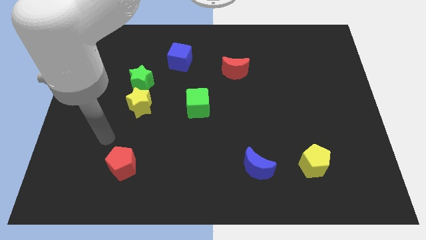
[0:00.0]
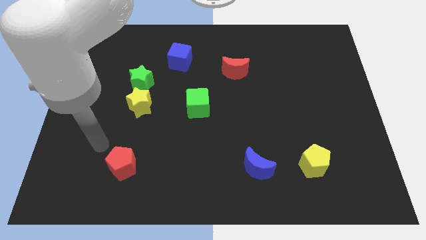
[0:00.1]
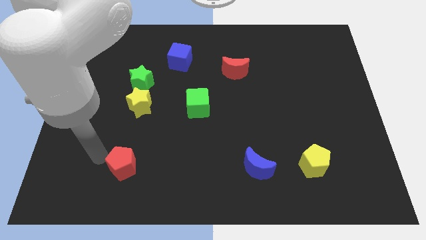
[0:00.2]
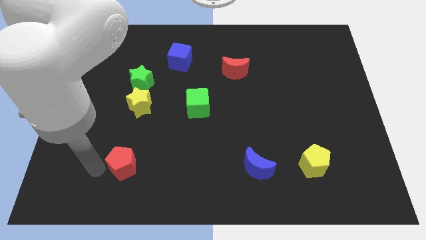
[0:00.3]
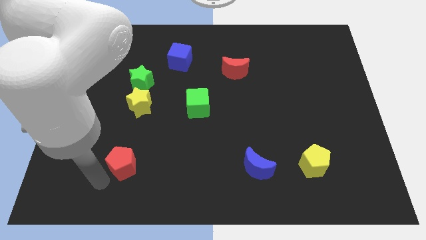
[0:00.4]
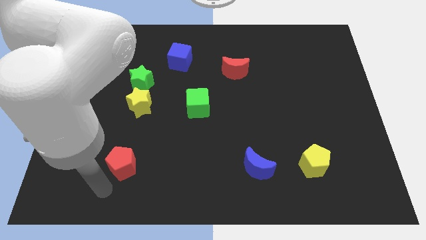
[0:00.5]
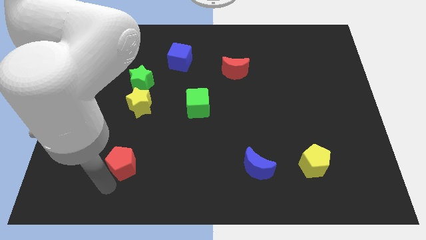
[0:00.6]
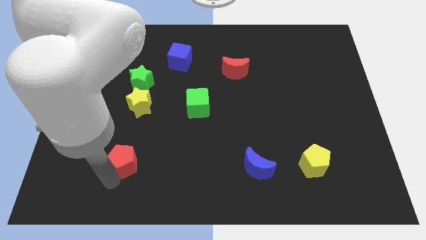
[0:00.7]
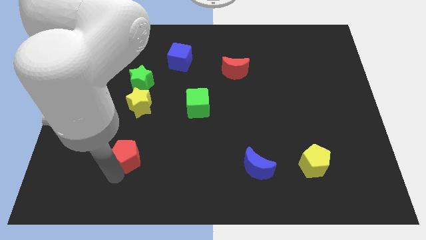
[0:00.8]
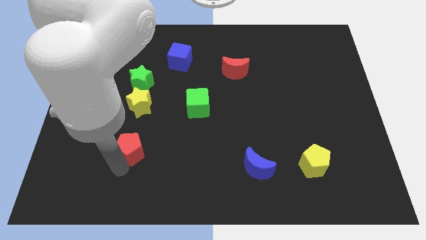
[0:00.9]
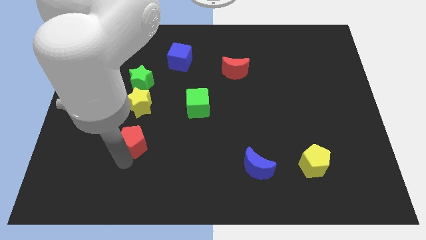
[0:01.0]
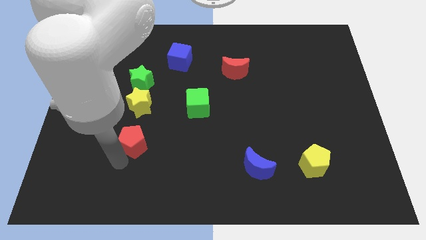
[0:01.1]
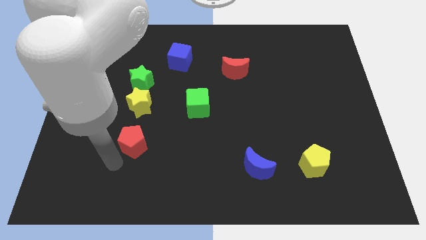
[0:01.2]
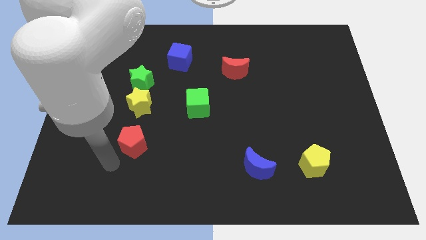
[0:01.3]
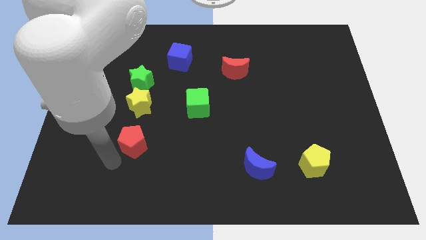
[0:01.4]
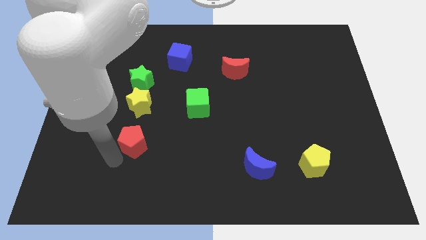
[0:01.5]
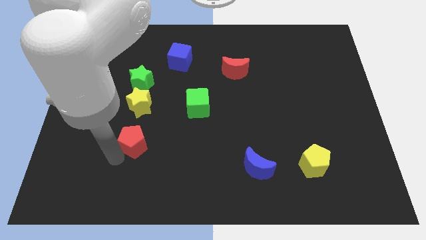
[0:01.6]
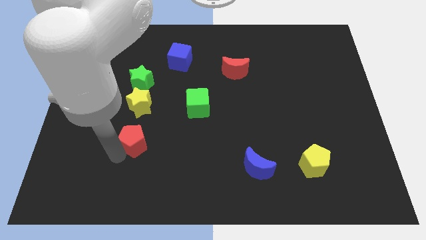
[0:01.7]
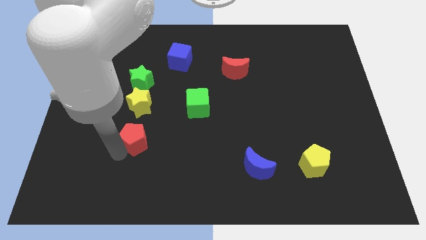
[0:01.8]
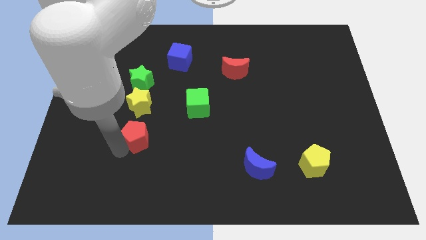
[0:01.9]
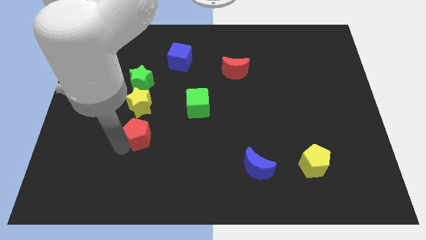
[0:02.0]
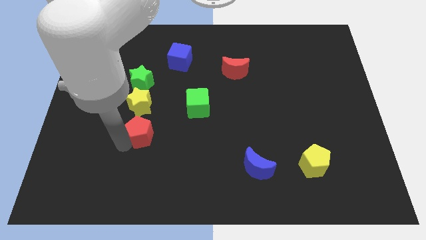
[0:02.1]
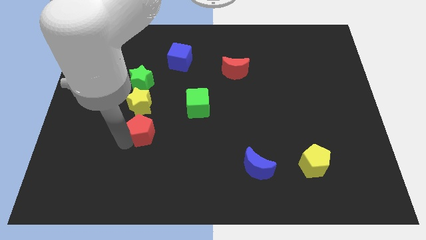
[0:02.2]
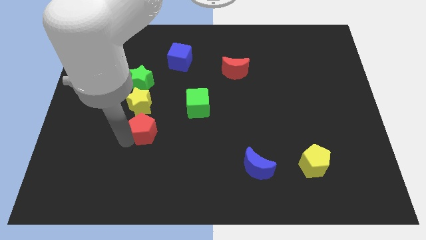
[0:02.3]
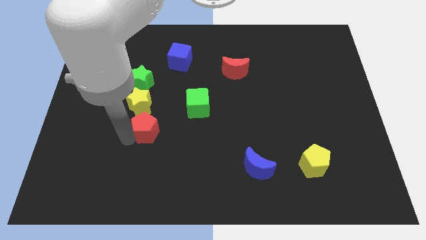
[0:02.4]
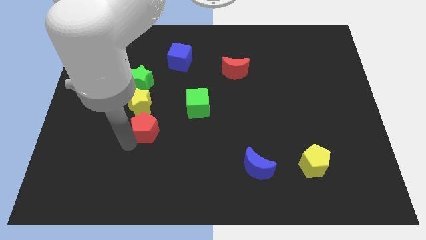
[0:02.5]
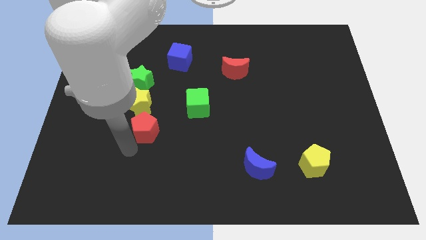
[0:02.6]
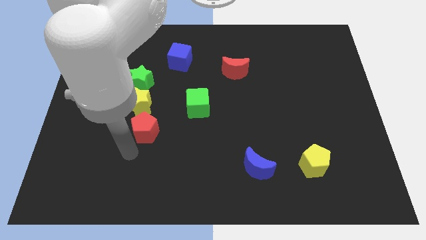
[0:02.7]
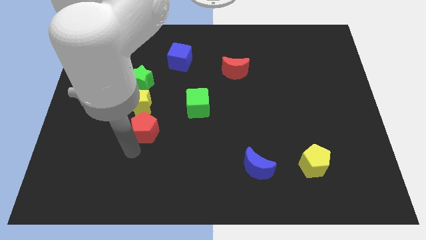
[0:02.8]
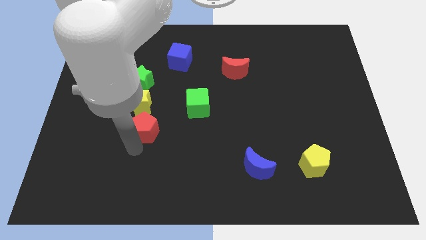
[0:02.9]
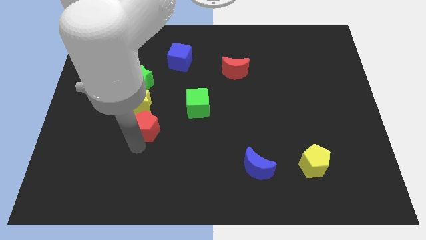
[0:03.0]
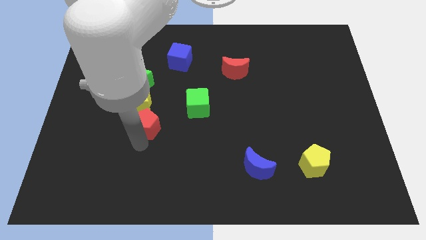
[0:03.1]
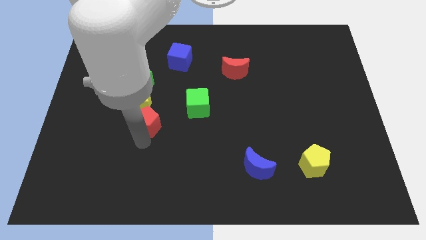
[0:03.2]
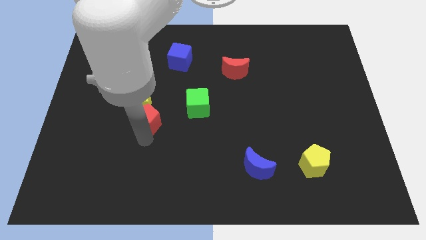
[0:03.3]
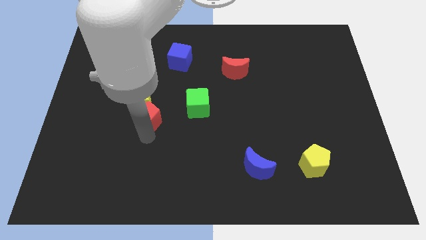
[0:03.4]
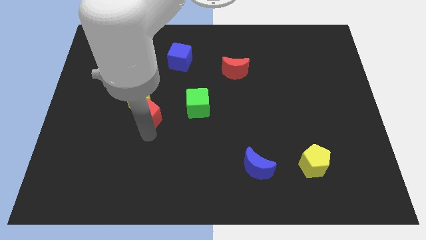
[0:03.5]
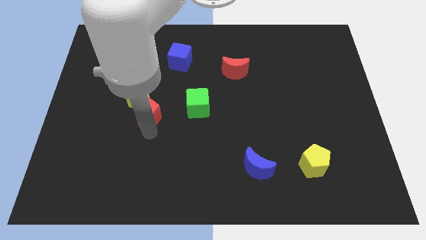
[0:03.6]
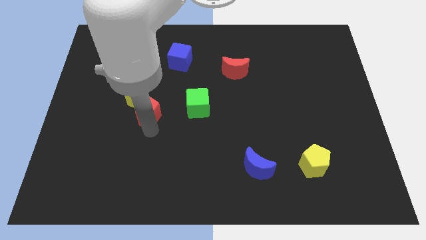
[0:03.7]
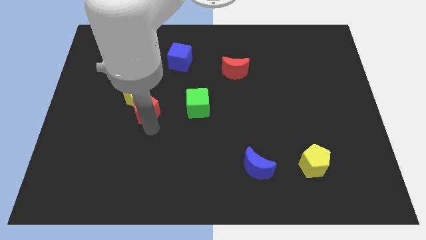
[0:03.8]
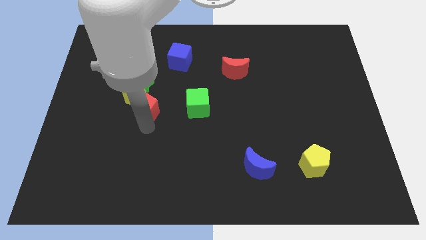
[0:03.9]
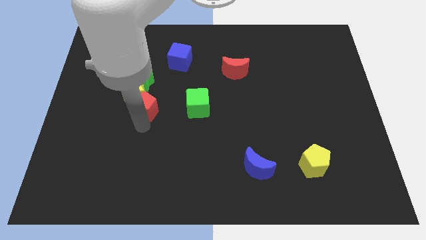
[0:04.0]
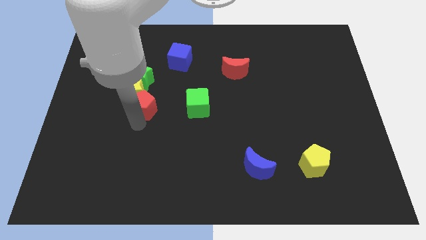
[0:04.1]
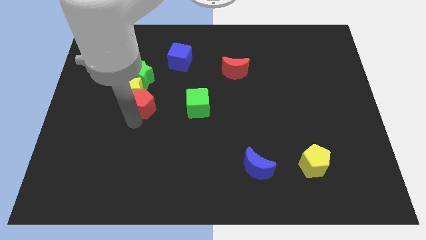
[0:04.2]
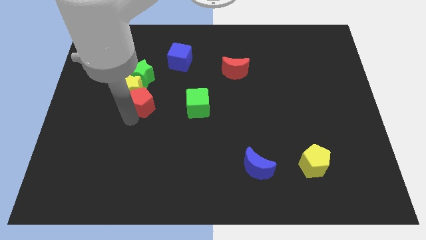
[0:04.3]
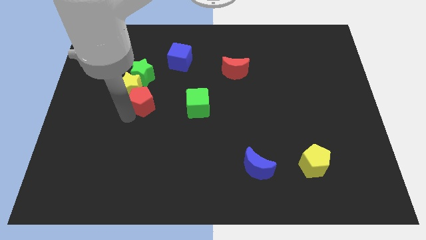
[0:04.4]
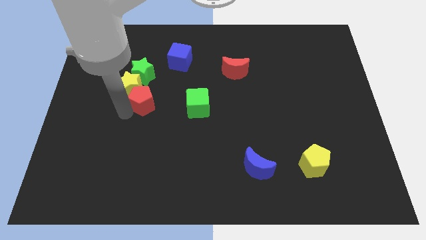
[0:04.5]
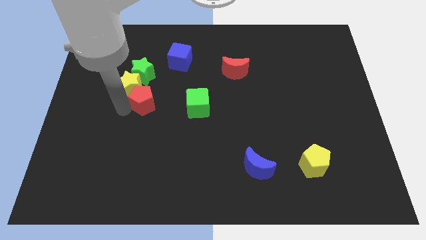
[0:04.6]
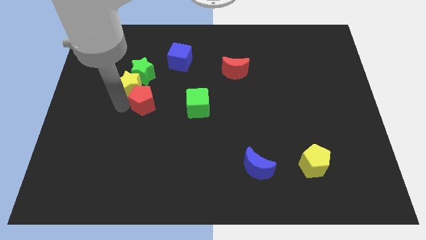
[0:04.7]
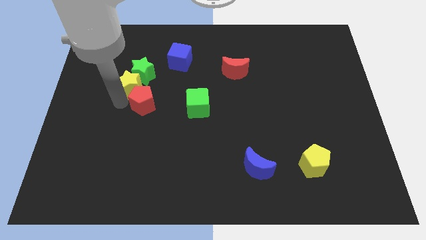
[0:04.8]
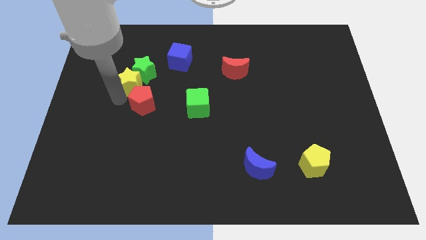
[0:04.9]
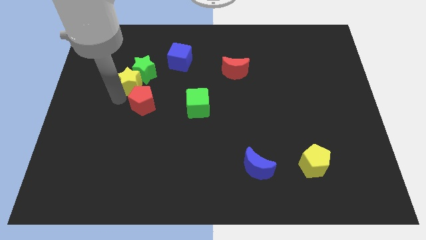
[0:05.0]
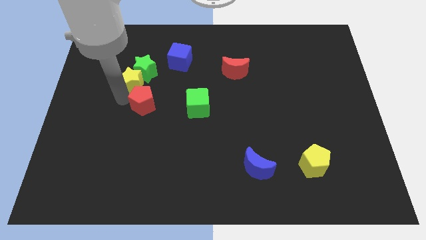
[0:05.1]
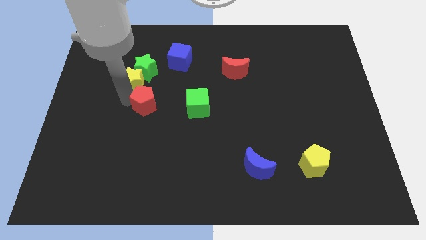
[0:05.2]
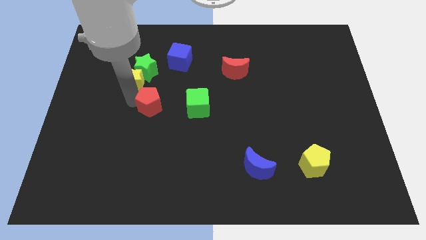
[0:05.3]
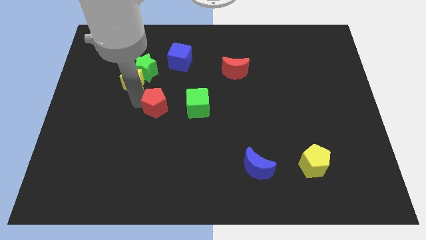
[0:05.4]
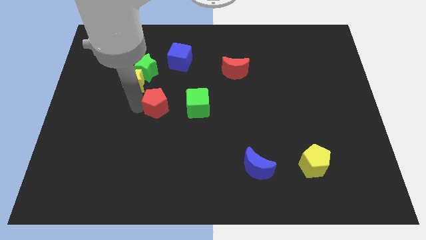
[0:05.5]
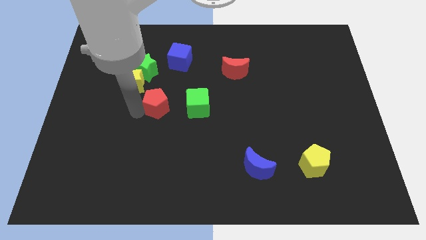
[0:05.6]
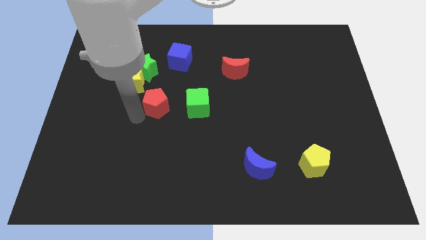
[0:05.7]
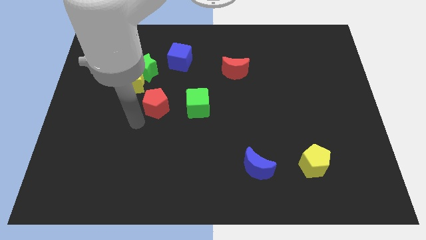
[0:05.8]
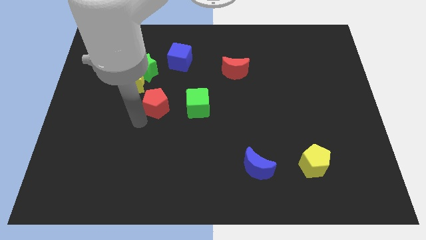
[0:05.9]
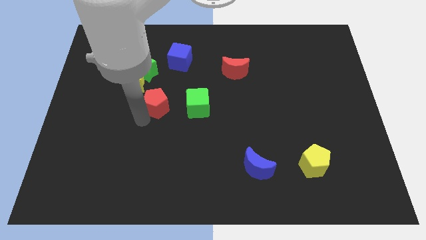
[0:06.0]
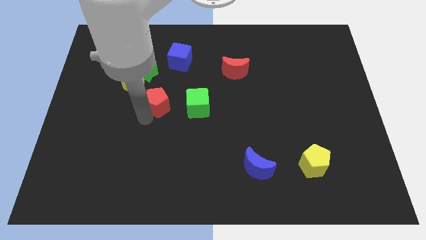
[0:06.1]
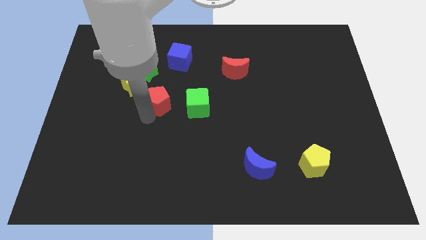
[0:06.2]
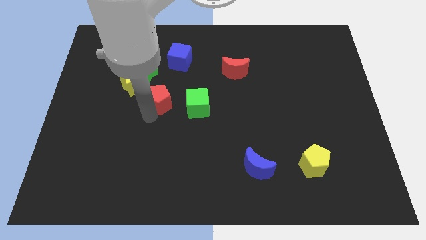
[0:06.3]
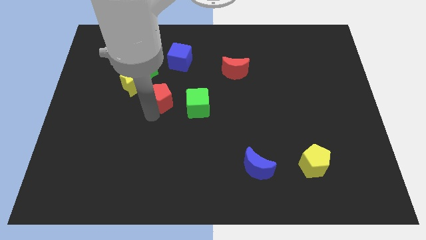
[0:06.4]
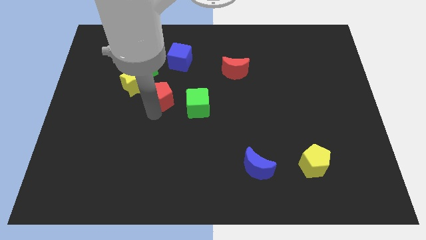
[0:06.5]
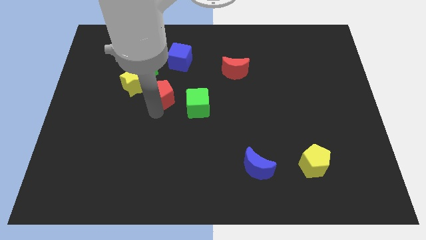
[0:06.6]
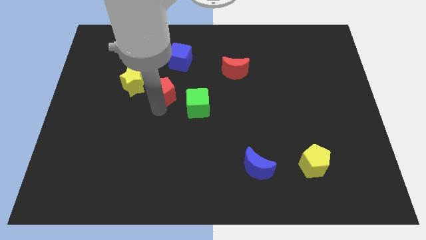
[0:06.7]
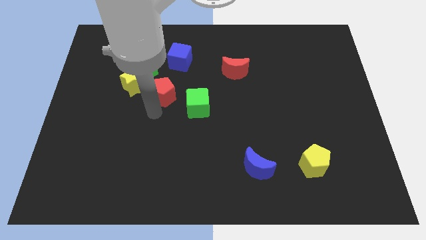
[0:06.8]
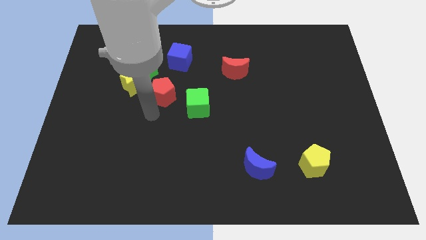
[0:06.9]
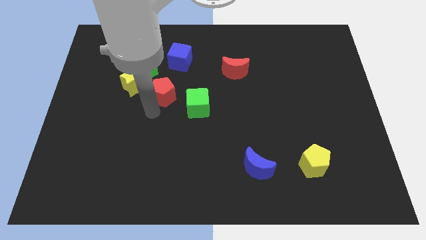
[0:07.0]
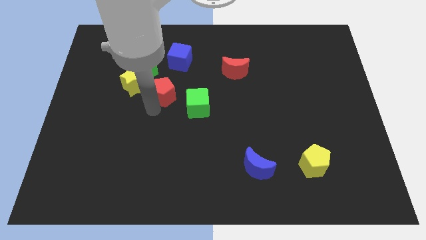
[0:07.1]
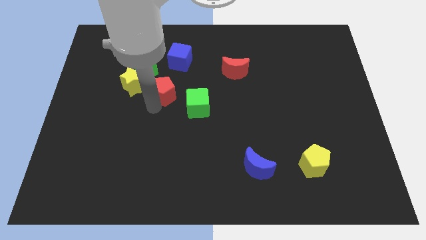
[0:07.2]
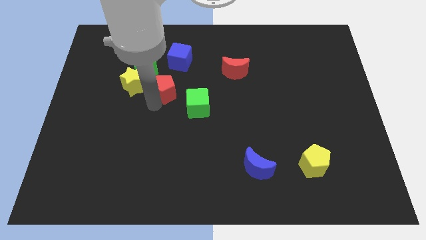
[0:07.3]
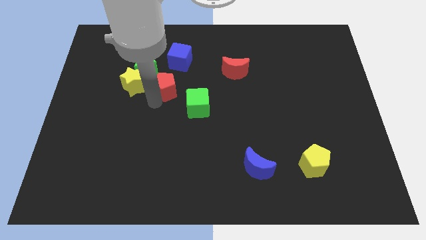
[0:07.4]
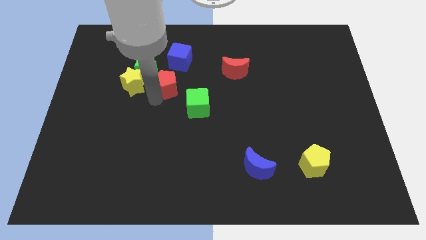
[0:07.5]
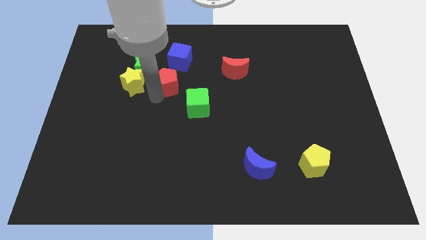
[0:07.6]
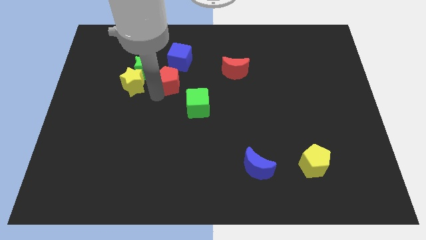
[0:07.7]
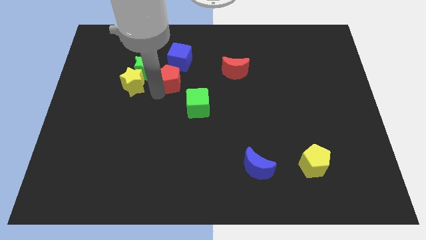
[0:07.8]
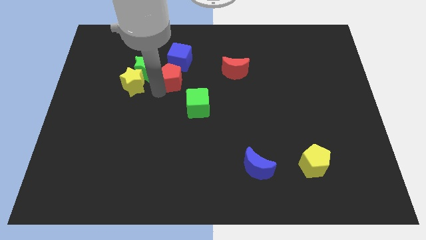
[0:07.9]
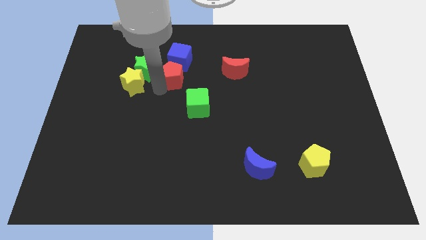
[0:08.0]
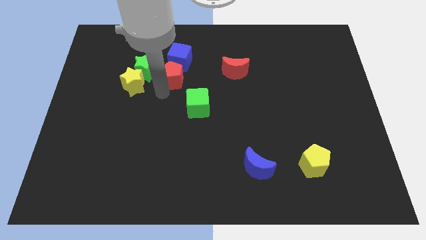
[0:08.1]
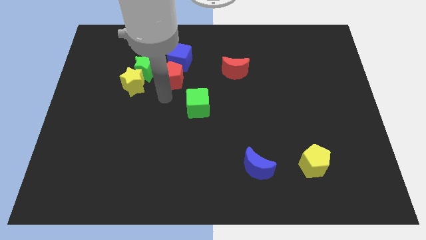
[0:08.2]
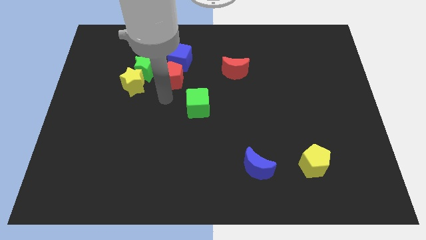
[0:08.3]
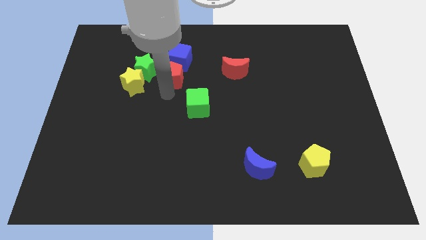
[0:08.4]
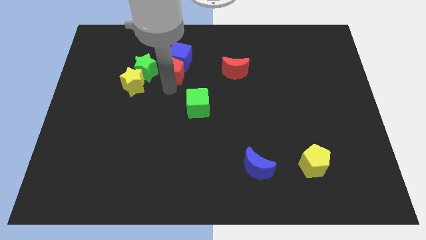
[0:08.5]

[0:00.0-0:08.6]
move the red pentagon next to the blue cube
